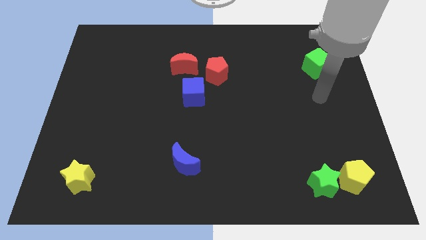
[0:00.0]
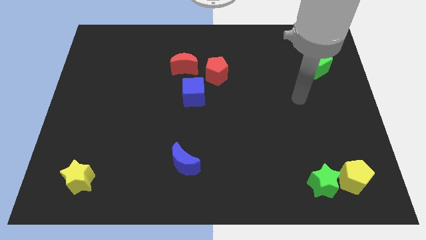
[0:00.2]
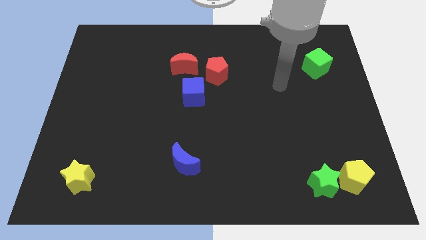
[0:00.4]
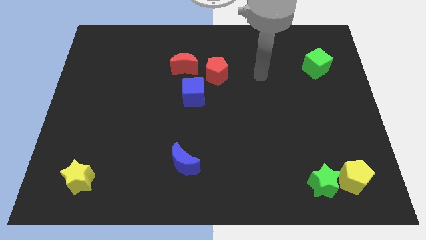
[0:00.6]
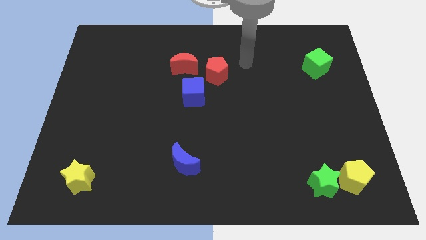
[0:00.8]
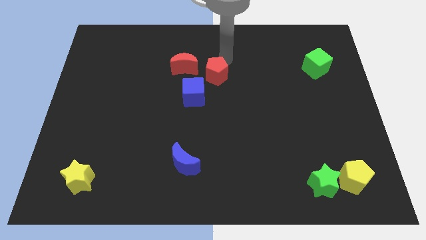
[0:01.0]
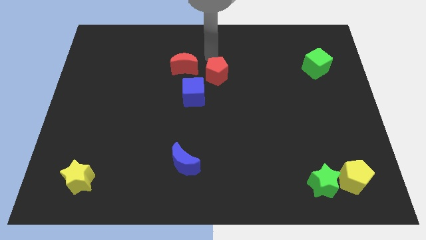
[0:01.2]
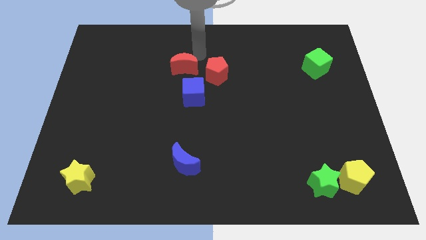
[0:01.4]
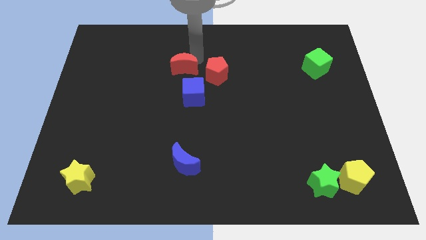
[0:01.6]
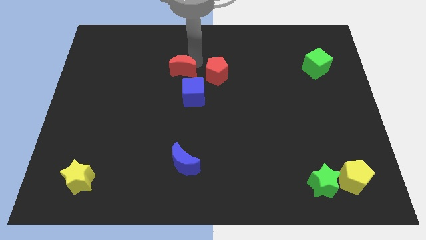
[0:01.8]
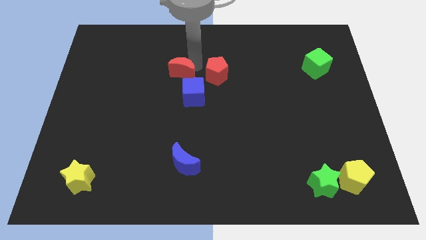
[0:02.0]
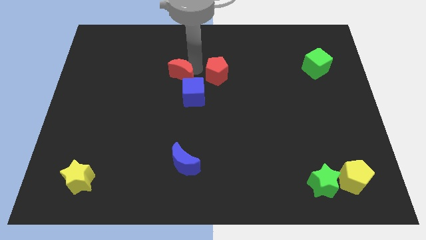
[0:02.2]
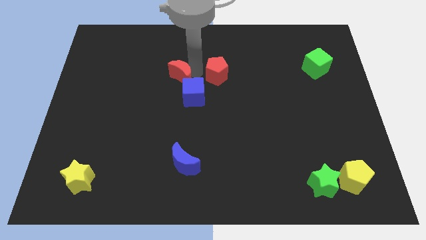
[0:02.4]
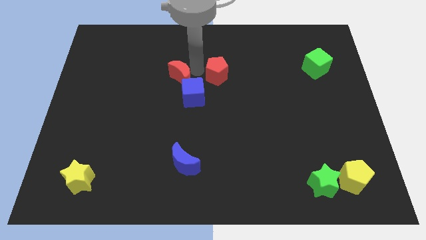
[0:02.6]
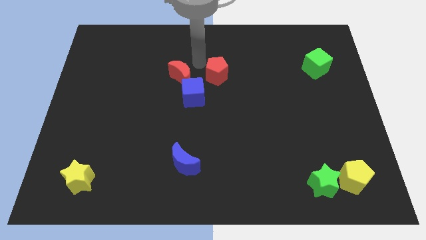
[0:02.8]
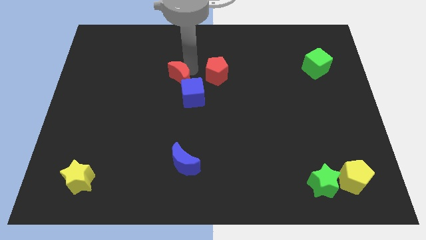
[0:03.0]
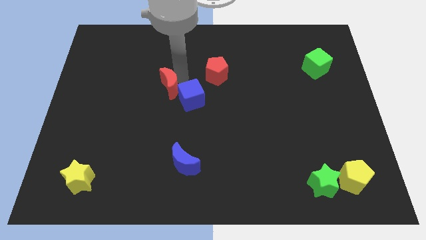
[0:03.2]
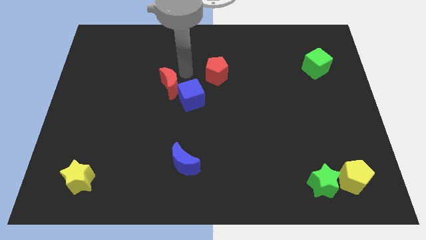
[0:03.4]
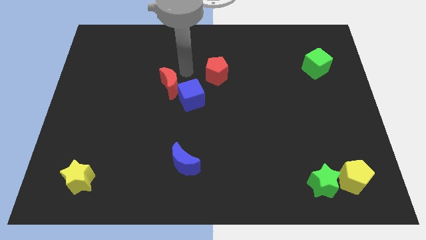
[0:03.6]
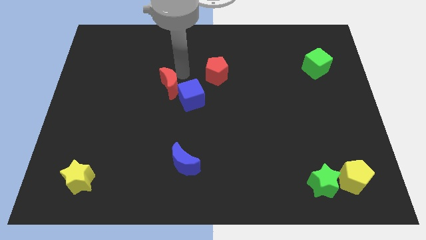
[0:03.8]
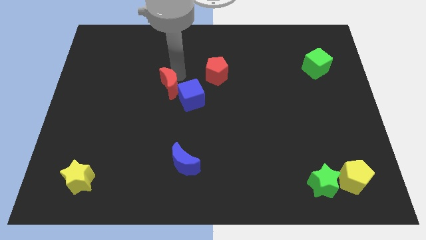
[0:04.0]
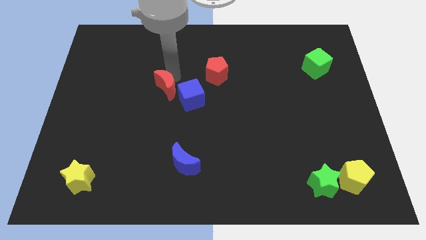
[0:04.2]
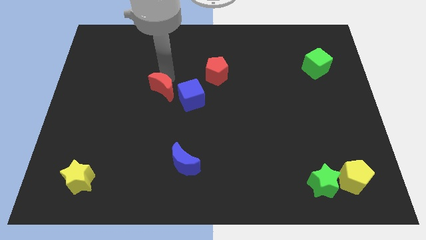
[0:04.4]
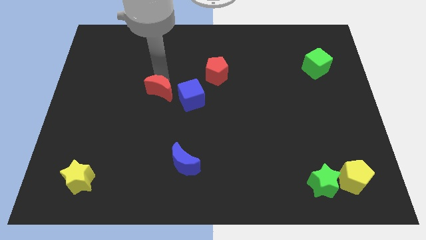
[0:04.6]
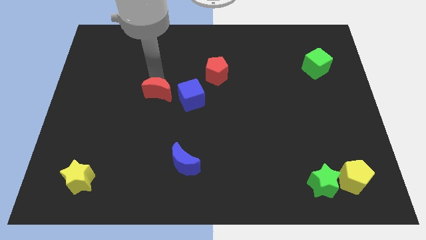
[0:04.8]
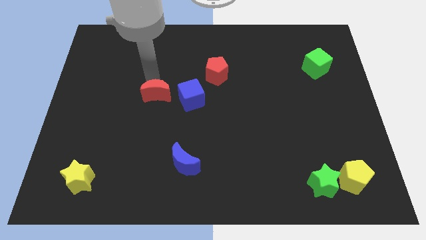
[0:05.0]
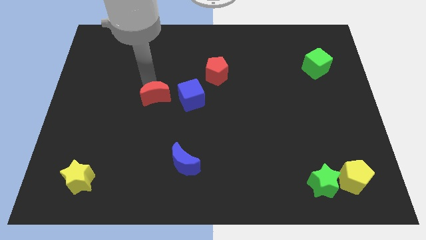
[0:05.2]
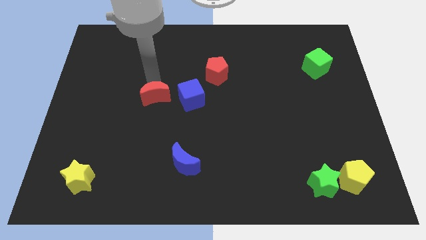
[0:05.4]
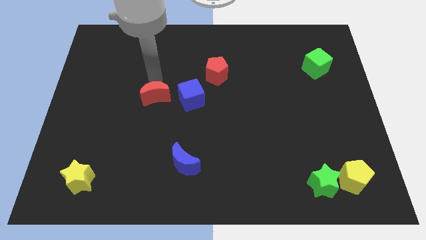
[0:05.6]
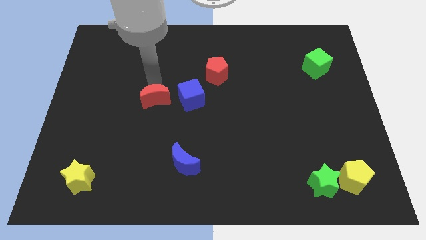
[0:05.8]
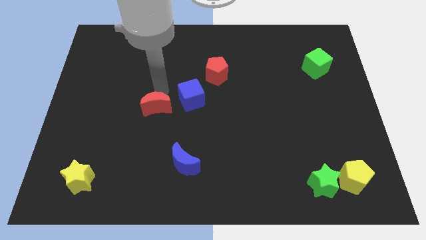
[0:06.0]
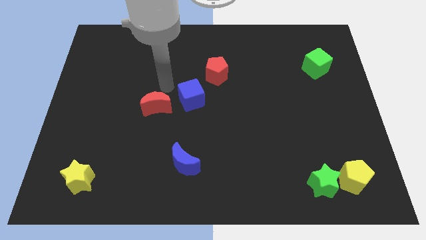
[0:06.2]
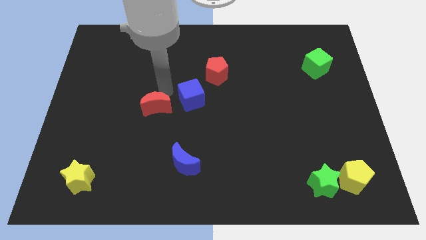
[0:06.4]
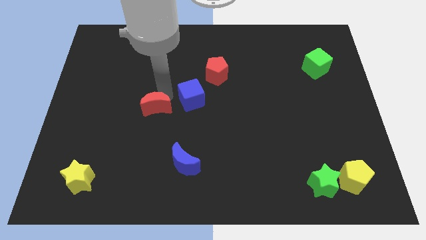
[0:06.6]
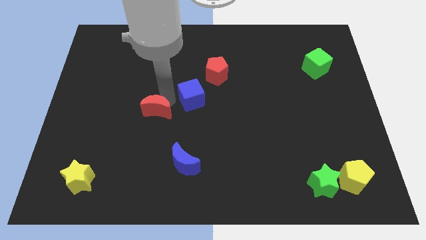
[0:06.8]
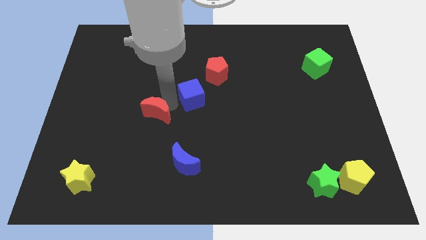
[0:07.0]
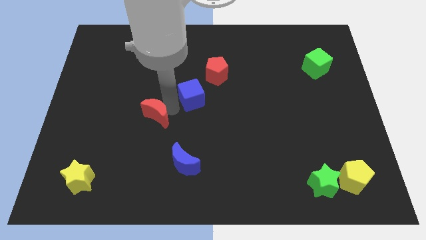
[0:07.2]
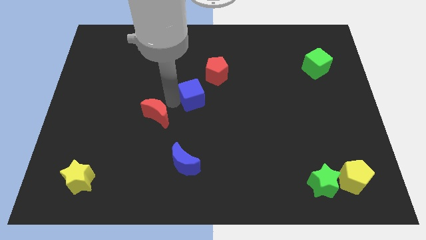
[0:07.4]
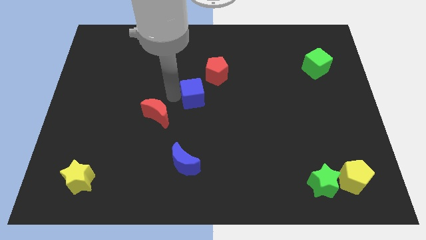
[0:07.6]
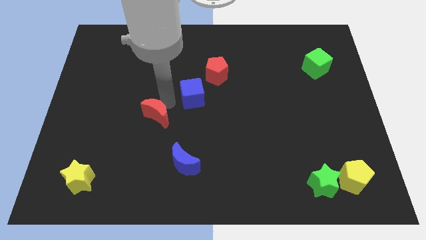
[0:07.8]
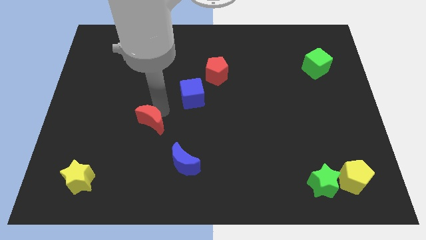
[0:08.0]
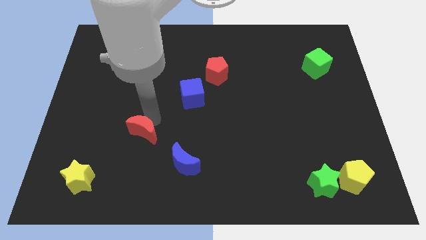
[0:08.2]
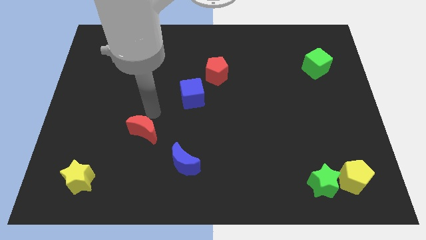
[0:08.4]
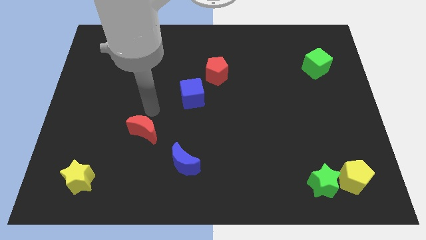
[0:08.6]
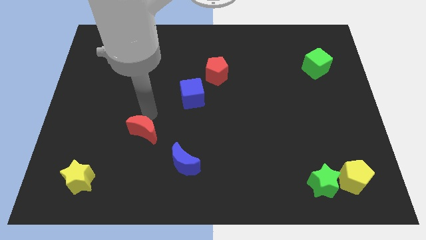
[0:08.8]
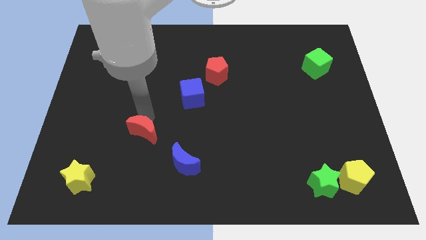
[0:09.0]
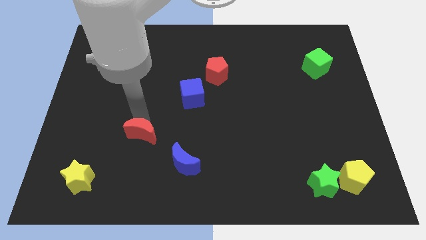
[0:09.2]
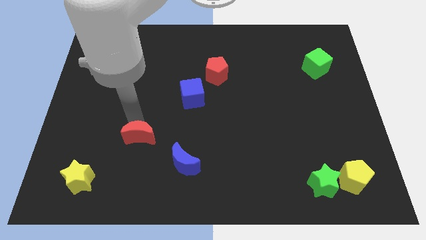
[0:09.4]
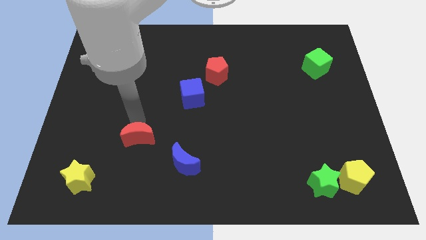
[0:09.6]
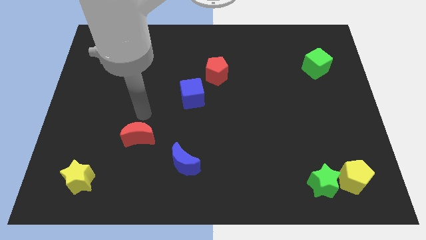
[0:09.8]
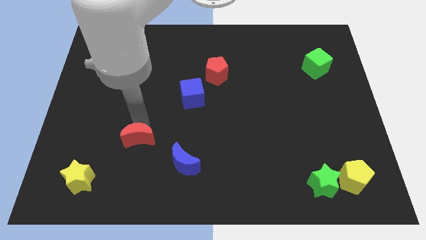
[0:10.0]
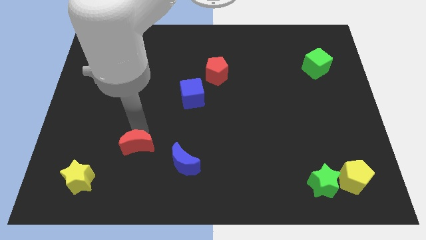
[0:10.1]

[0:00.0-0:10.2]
move the red moon to the left of the blue moon

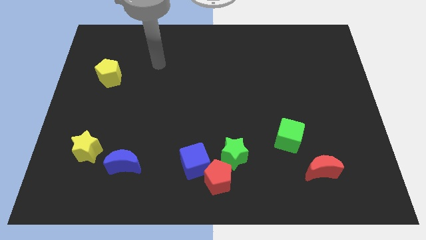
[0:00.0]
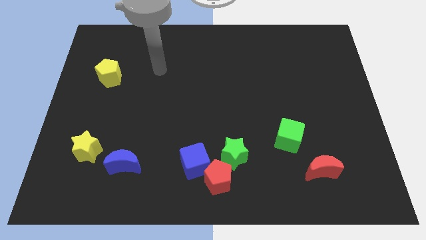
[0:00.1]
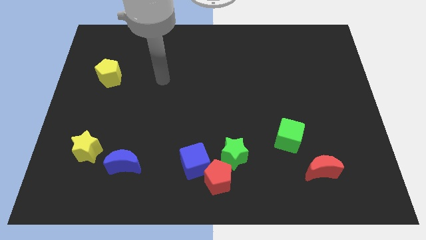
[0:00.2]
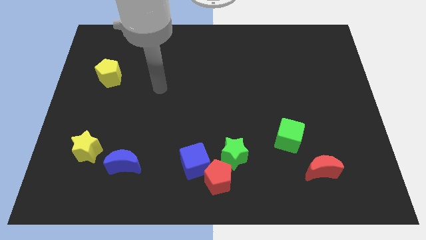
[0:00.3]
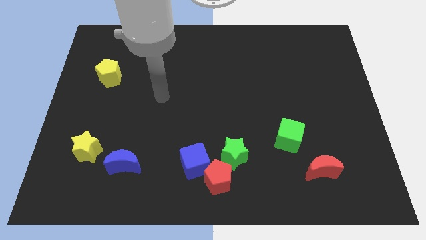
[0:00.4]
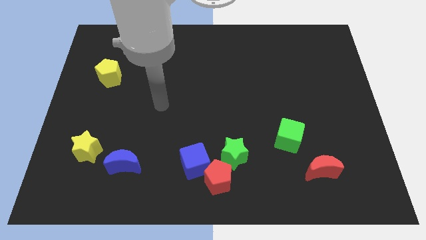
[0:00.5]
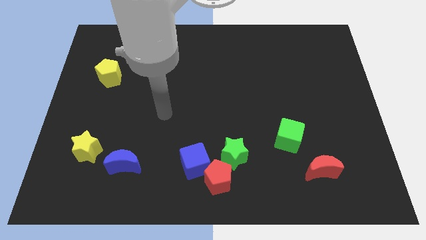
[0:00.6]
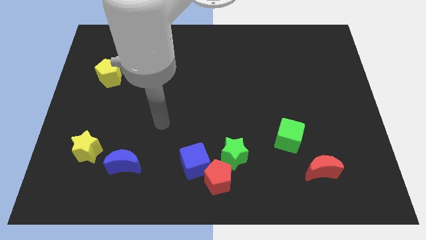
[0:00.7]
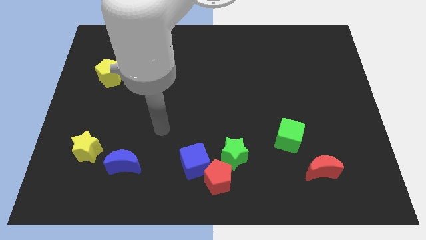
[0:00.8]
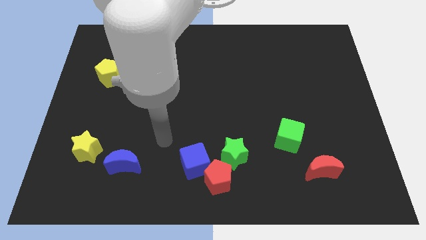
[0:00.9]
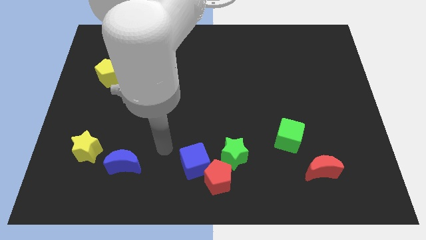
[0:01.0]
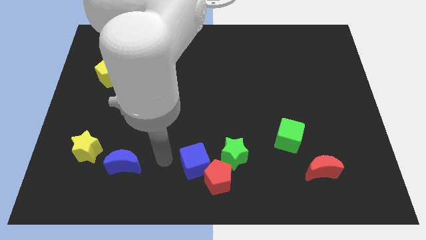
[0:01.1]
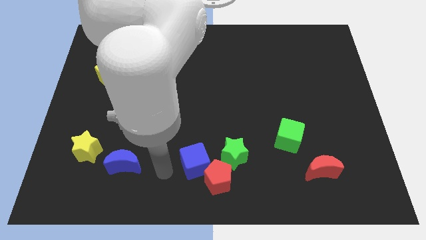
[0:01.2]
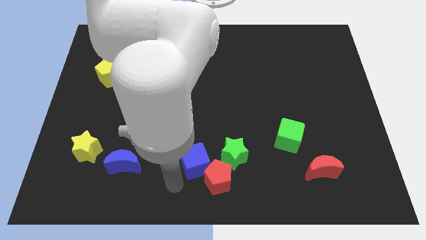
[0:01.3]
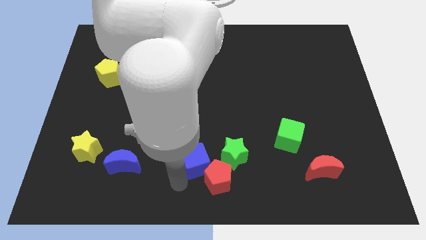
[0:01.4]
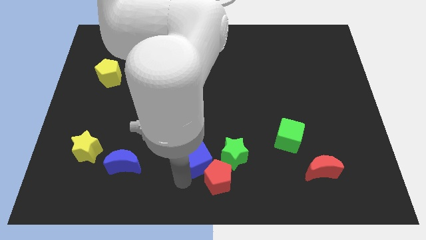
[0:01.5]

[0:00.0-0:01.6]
push the blue cube to the top side of the red pentagon
